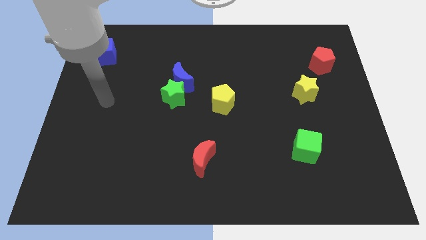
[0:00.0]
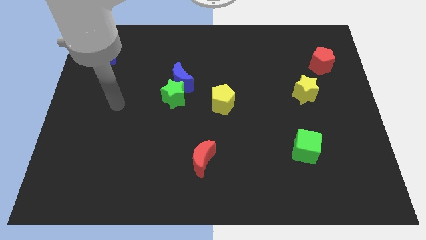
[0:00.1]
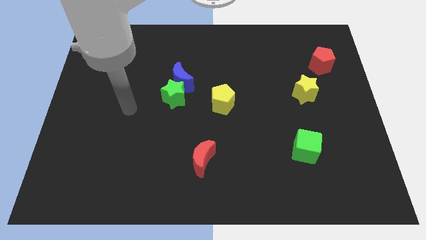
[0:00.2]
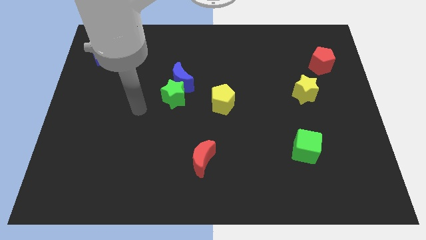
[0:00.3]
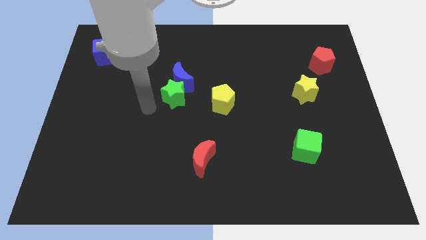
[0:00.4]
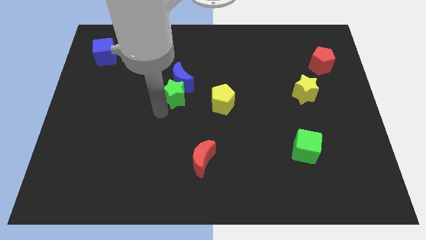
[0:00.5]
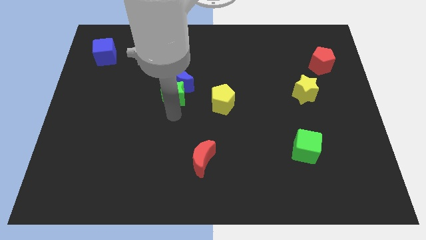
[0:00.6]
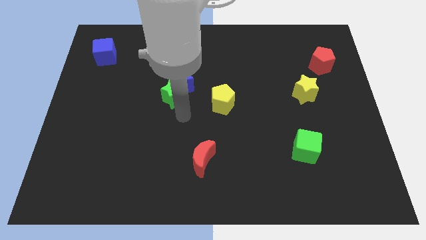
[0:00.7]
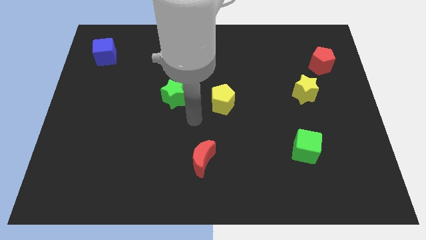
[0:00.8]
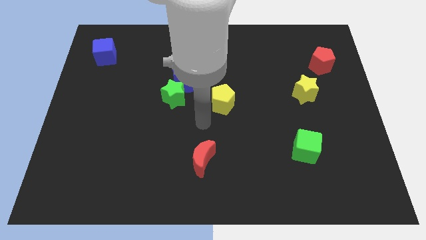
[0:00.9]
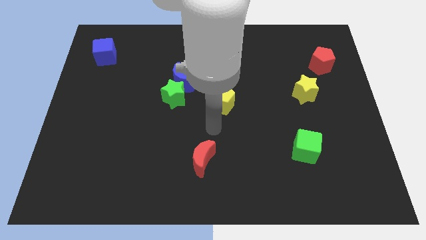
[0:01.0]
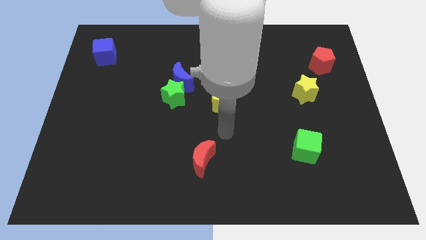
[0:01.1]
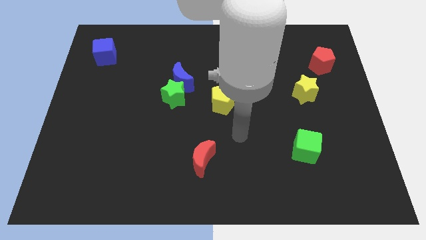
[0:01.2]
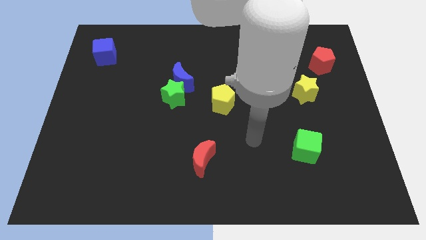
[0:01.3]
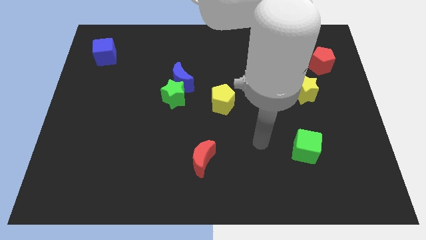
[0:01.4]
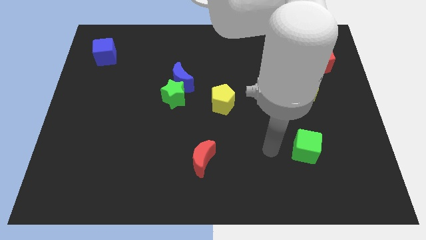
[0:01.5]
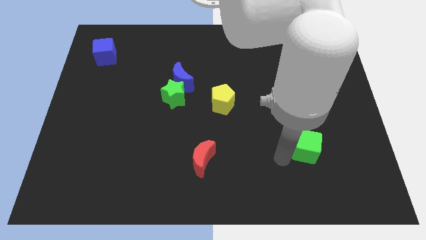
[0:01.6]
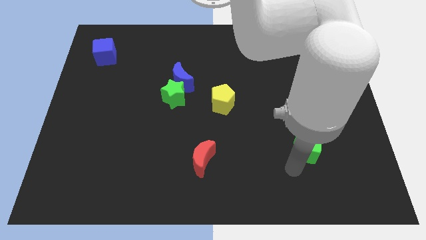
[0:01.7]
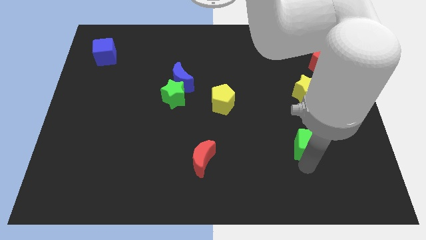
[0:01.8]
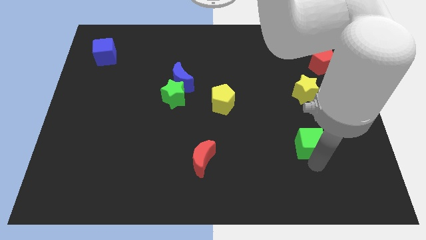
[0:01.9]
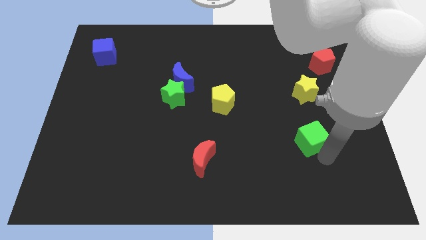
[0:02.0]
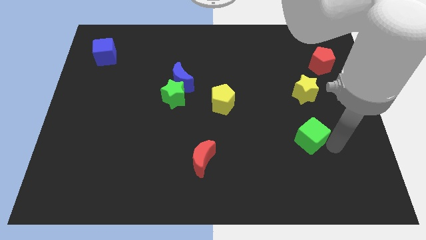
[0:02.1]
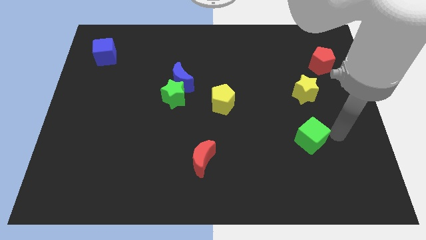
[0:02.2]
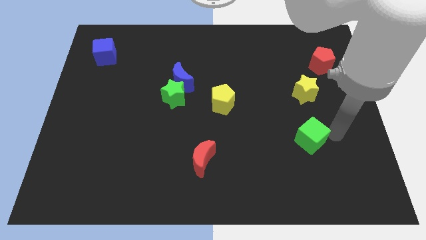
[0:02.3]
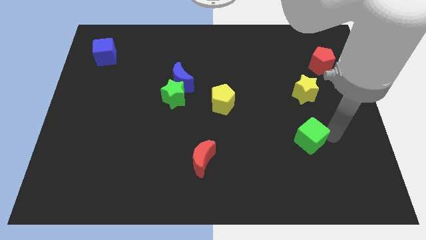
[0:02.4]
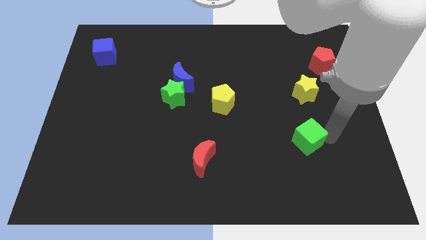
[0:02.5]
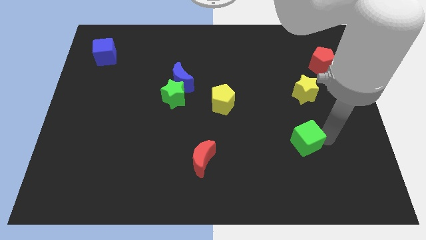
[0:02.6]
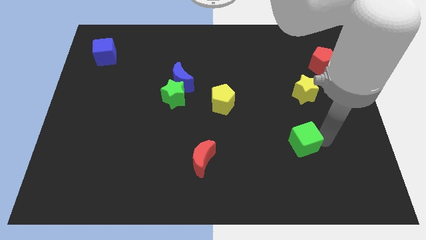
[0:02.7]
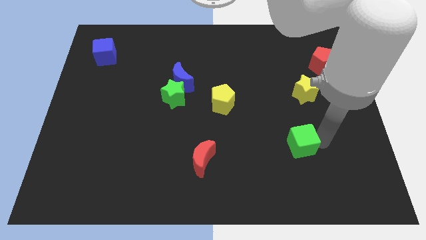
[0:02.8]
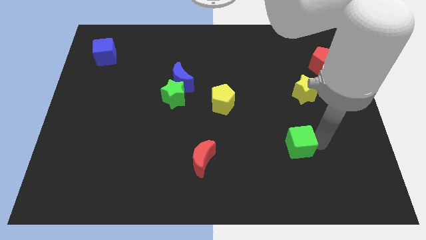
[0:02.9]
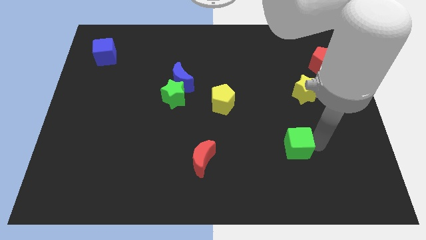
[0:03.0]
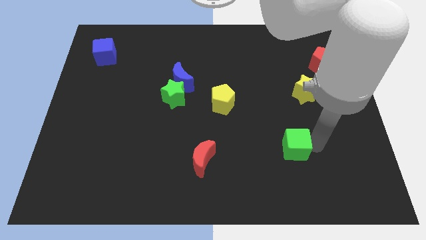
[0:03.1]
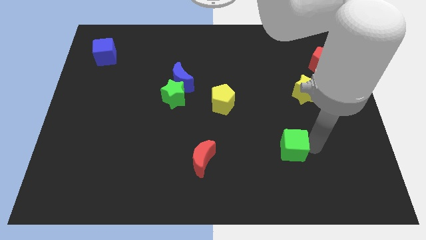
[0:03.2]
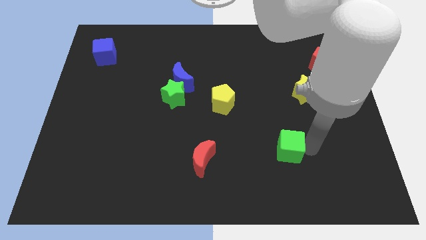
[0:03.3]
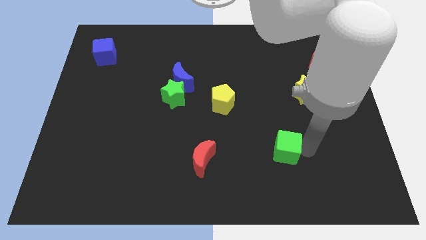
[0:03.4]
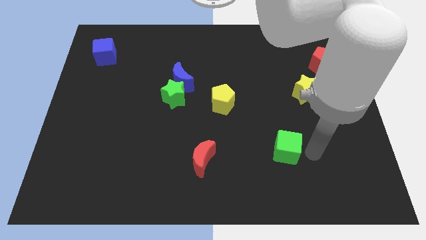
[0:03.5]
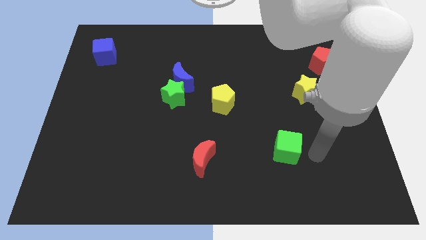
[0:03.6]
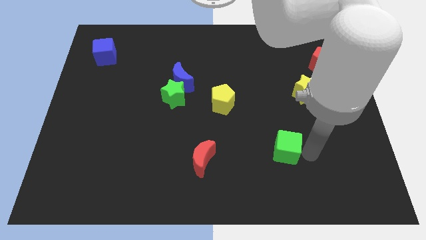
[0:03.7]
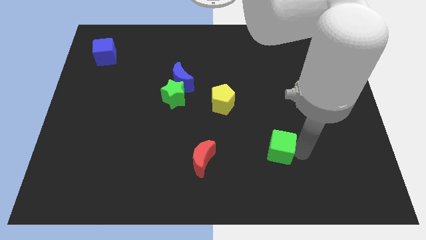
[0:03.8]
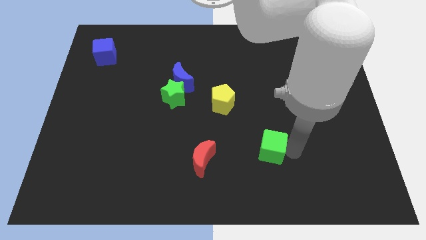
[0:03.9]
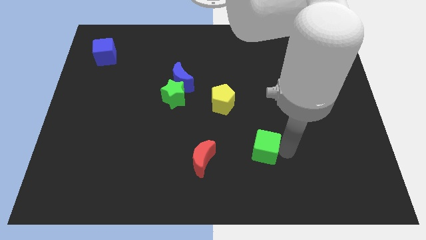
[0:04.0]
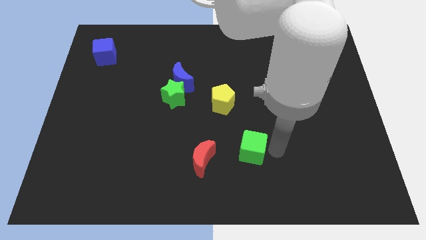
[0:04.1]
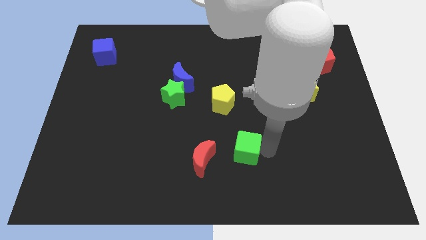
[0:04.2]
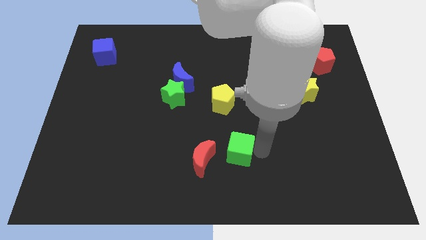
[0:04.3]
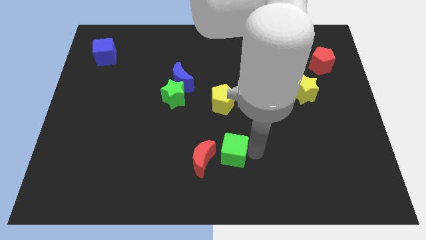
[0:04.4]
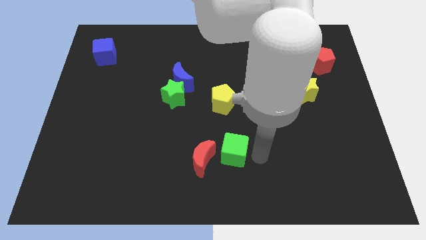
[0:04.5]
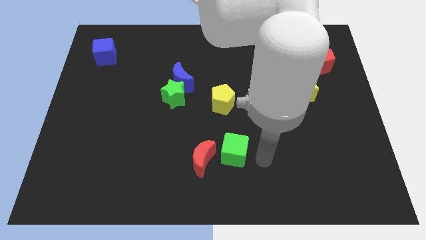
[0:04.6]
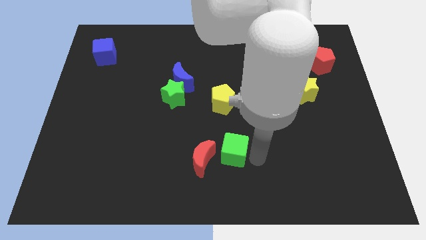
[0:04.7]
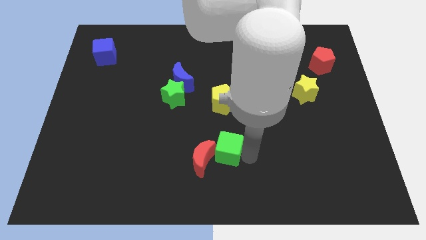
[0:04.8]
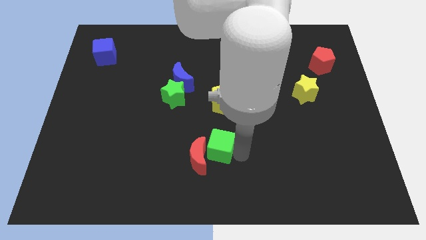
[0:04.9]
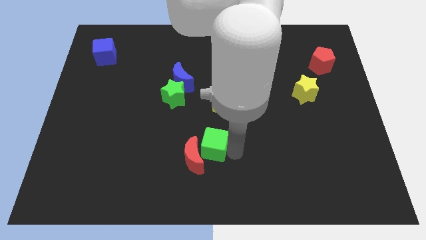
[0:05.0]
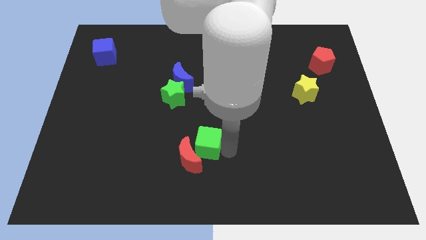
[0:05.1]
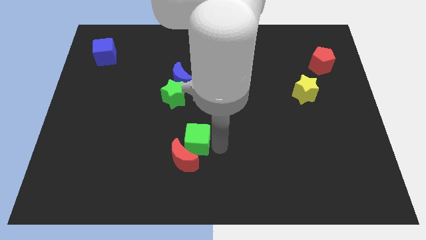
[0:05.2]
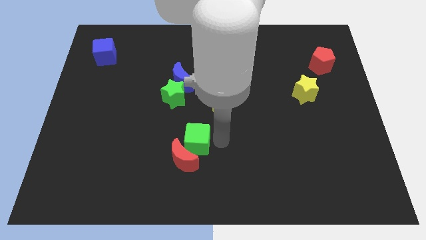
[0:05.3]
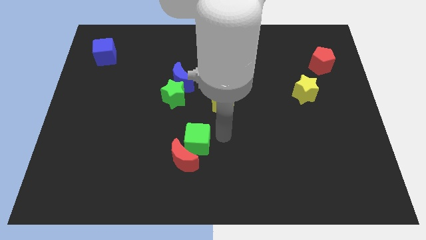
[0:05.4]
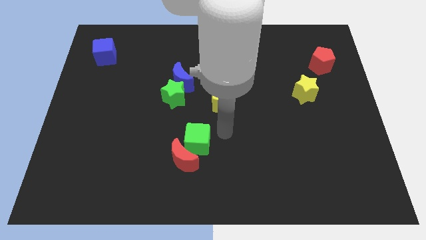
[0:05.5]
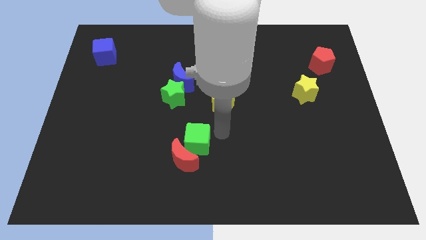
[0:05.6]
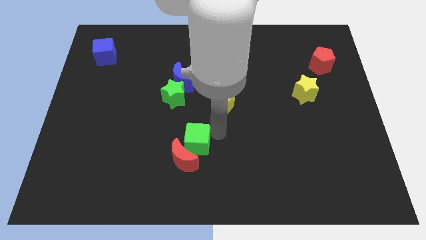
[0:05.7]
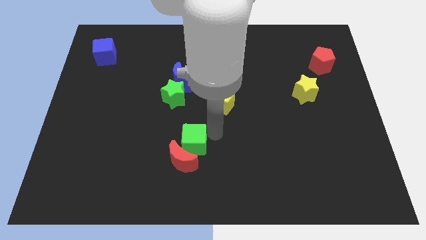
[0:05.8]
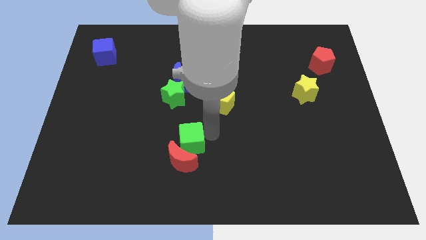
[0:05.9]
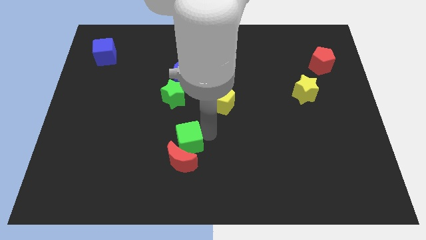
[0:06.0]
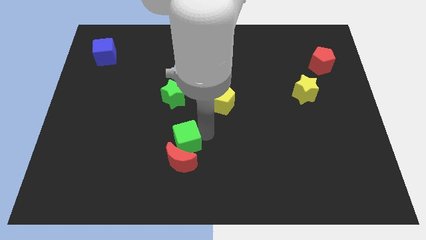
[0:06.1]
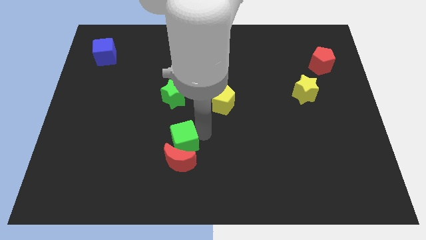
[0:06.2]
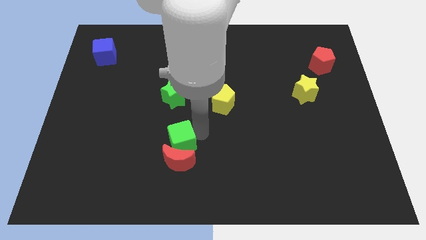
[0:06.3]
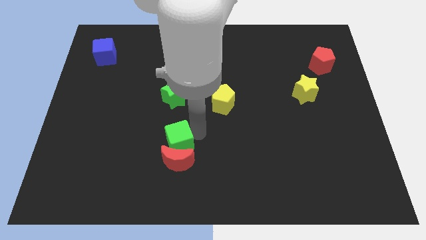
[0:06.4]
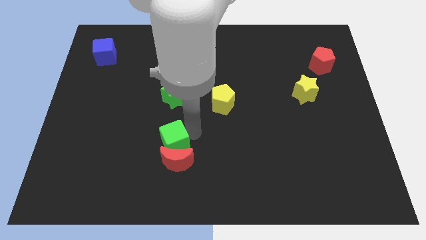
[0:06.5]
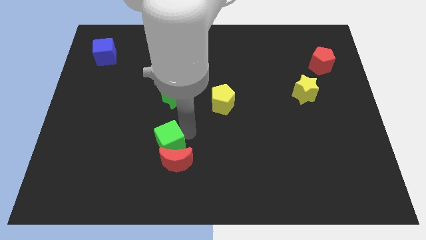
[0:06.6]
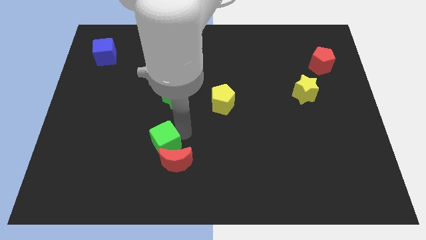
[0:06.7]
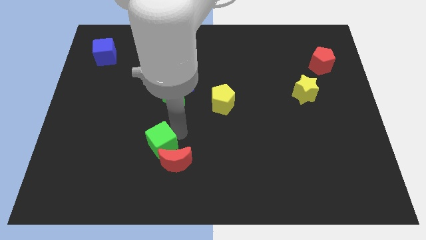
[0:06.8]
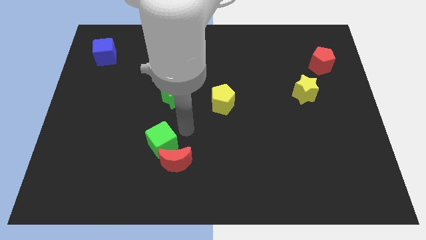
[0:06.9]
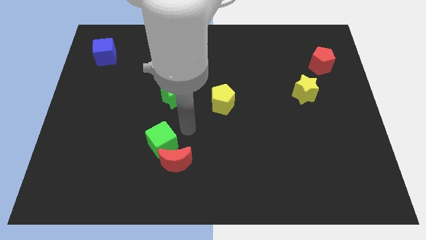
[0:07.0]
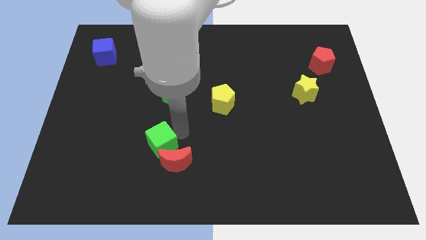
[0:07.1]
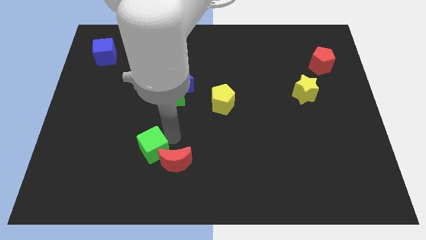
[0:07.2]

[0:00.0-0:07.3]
slide the green cube left of the red moon
